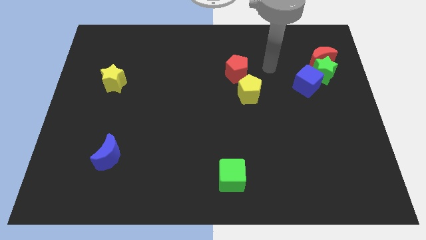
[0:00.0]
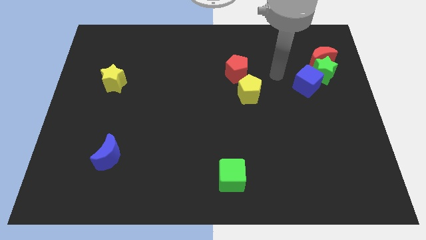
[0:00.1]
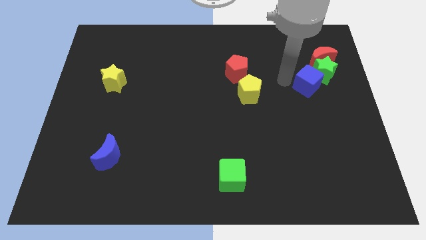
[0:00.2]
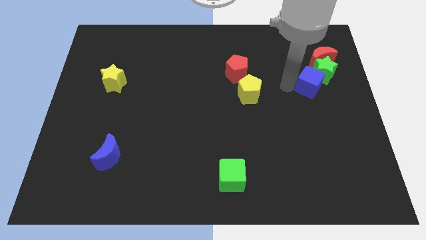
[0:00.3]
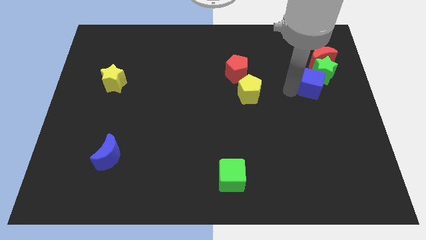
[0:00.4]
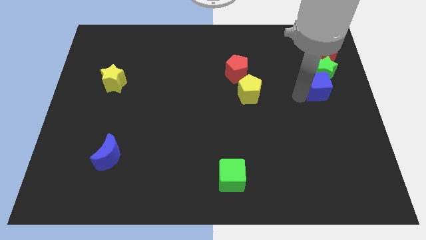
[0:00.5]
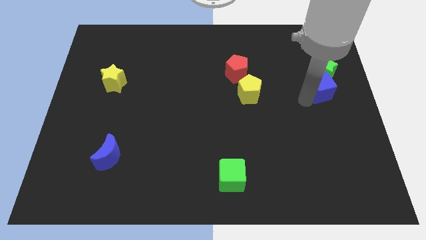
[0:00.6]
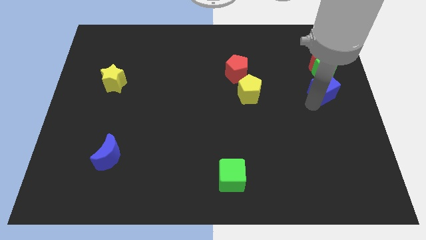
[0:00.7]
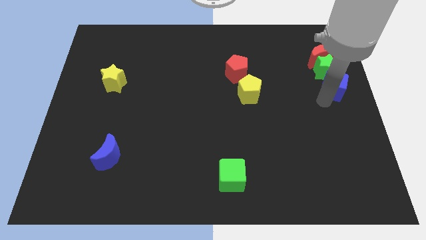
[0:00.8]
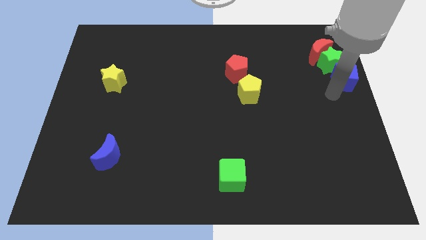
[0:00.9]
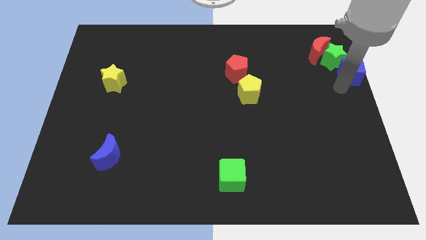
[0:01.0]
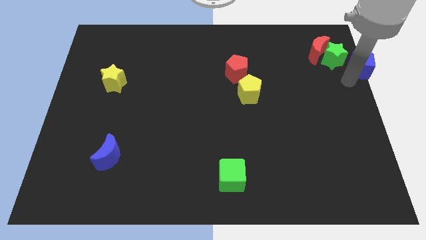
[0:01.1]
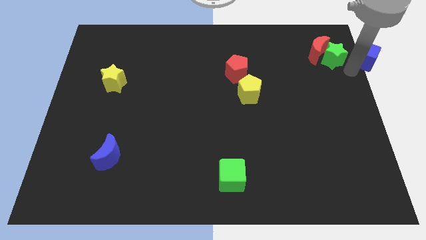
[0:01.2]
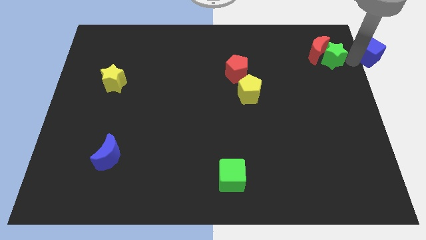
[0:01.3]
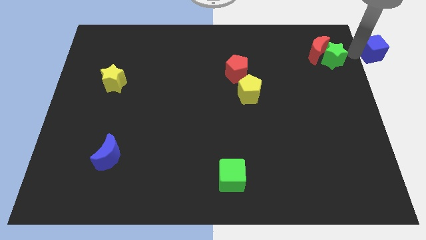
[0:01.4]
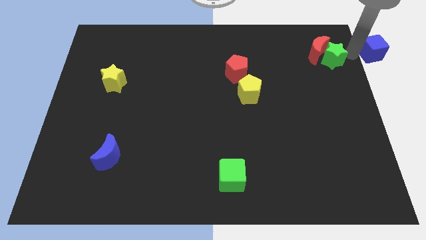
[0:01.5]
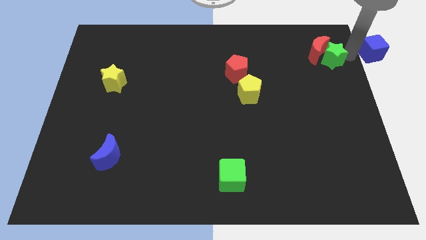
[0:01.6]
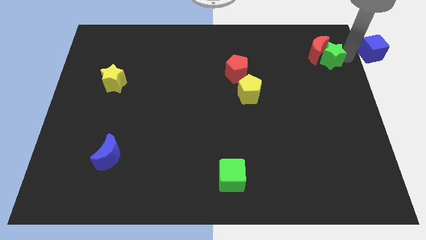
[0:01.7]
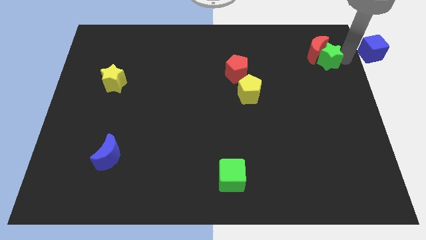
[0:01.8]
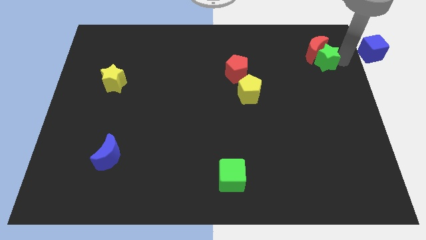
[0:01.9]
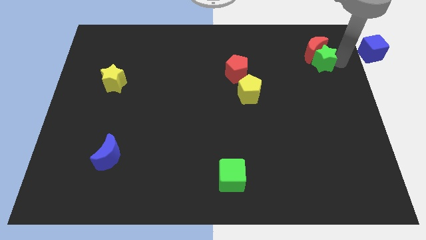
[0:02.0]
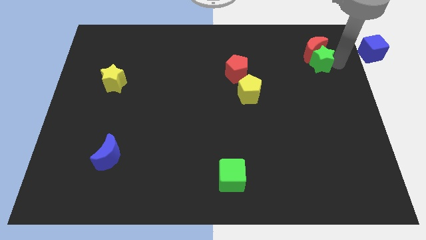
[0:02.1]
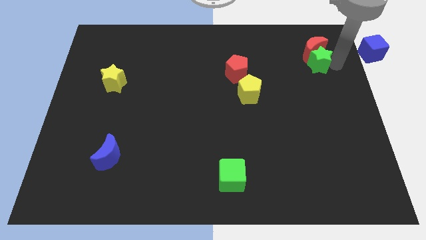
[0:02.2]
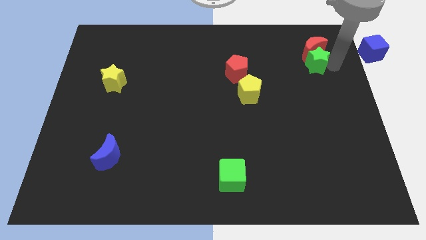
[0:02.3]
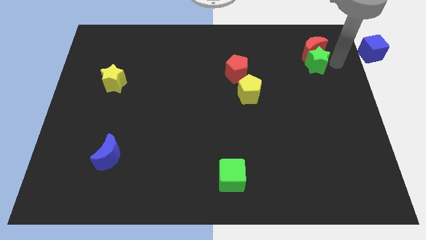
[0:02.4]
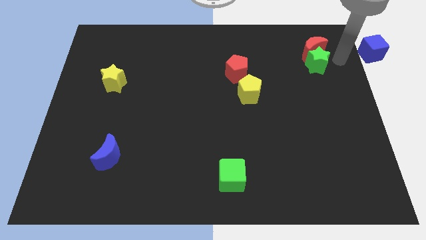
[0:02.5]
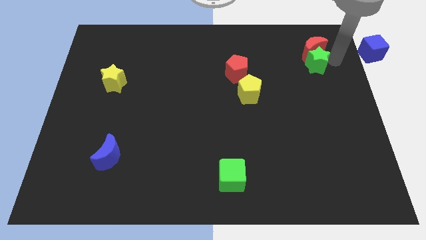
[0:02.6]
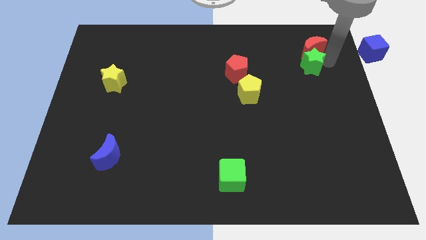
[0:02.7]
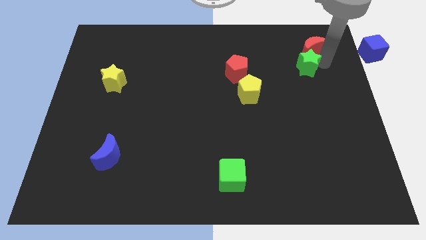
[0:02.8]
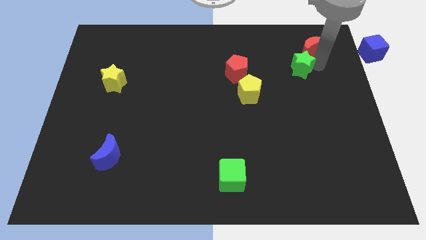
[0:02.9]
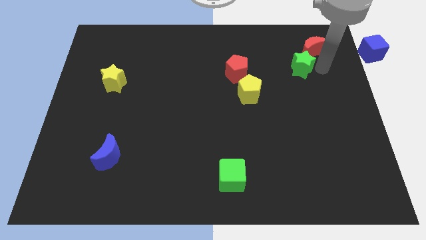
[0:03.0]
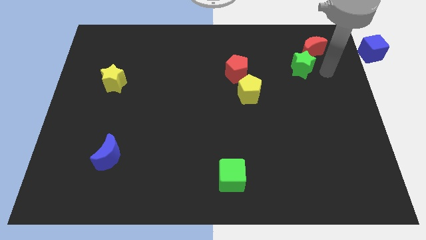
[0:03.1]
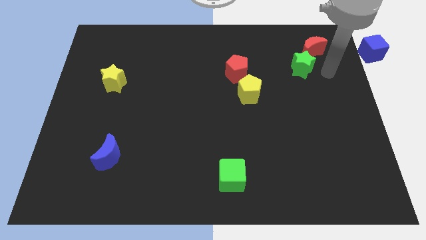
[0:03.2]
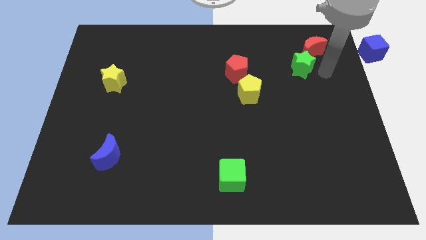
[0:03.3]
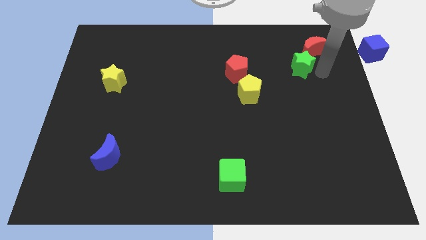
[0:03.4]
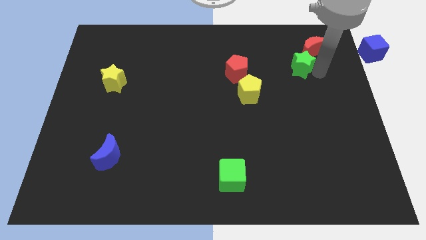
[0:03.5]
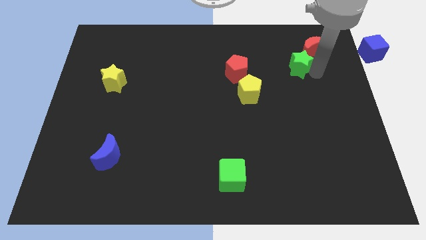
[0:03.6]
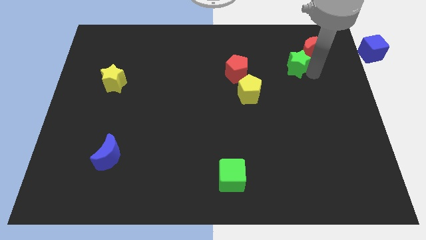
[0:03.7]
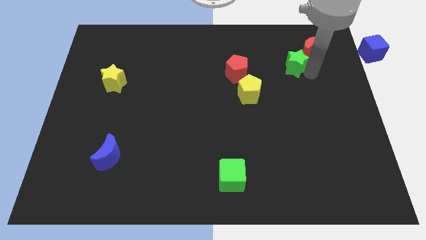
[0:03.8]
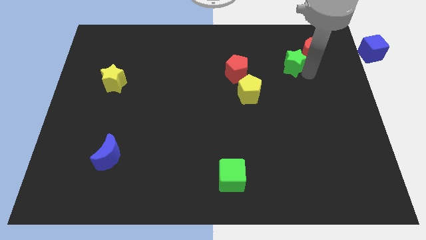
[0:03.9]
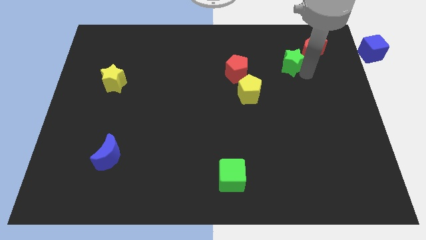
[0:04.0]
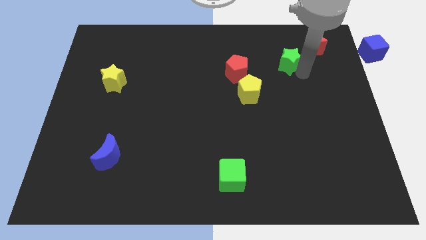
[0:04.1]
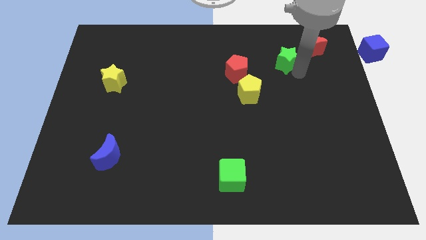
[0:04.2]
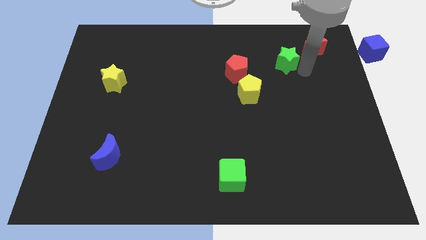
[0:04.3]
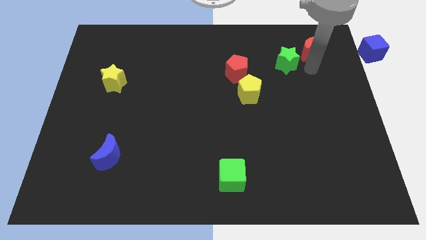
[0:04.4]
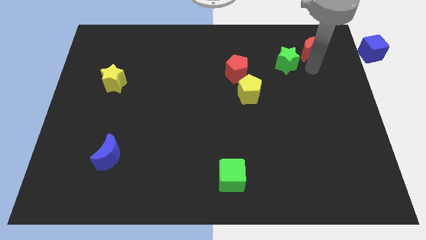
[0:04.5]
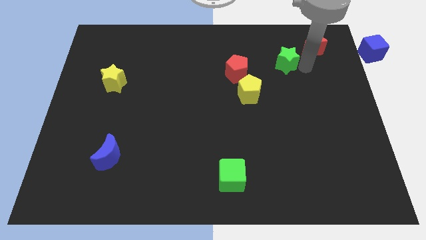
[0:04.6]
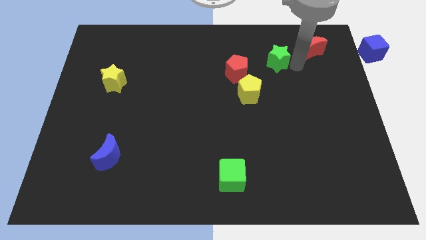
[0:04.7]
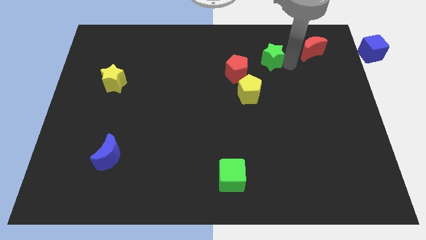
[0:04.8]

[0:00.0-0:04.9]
put the green star to the top right side of the red pentagon

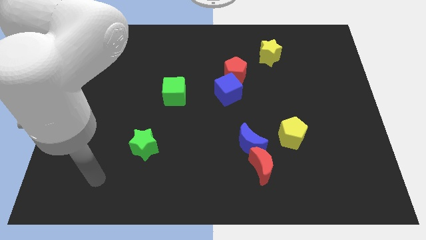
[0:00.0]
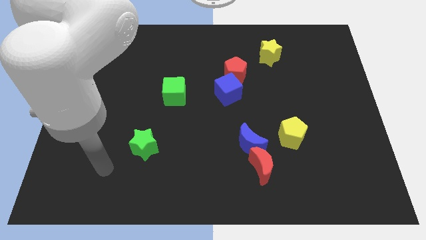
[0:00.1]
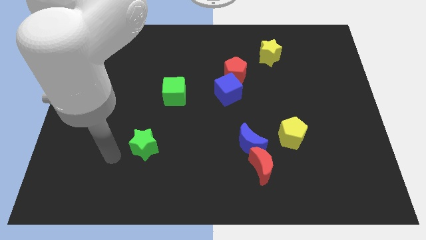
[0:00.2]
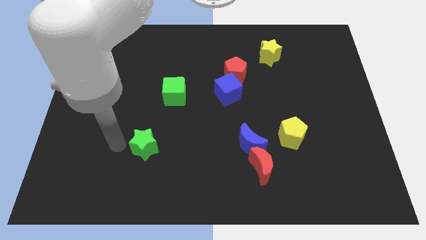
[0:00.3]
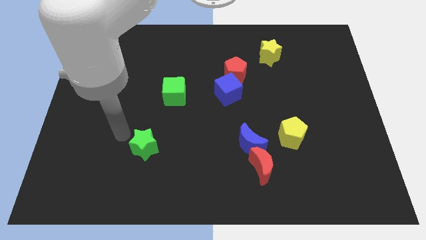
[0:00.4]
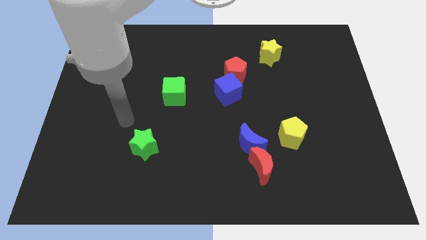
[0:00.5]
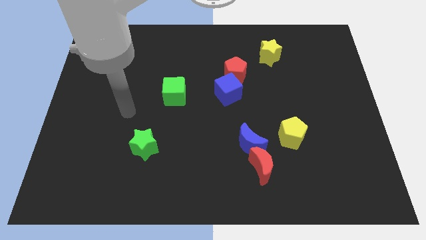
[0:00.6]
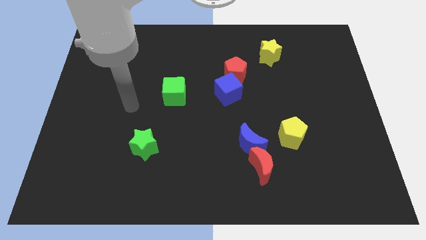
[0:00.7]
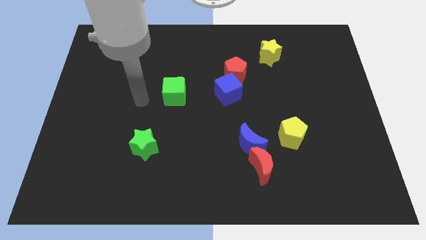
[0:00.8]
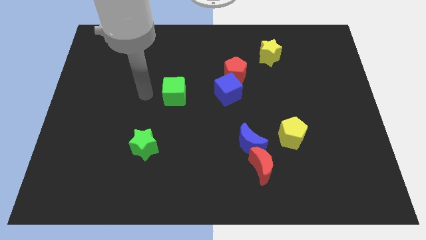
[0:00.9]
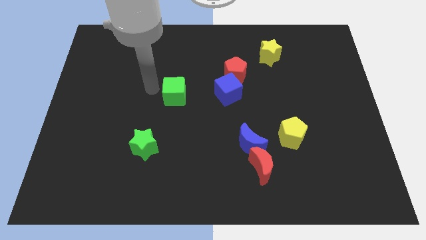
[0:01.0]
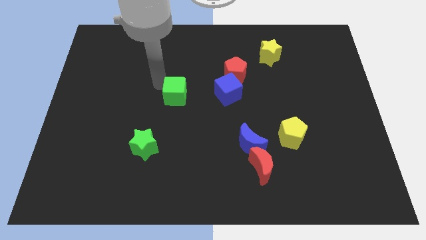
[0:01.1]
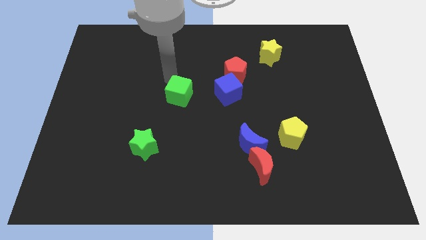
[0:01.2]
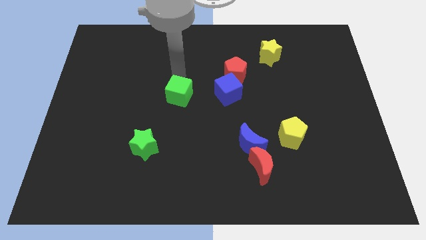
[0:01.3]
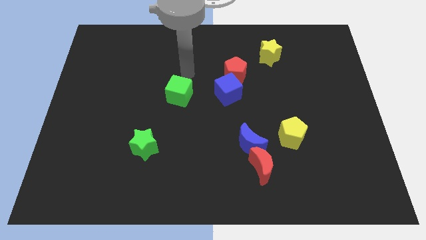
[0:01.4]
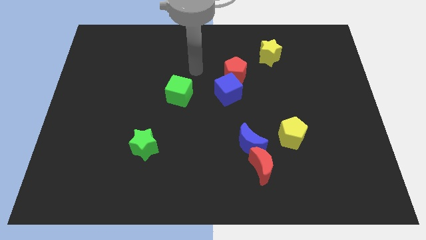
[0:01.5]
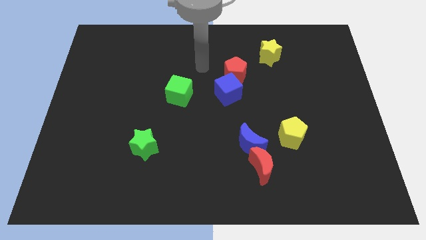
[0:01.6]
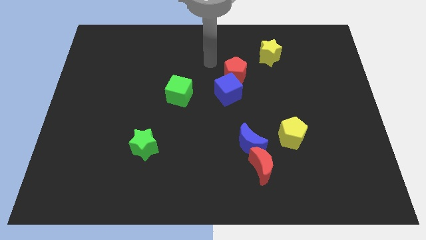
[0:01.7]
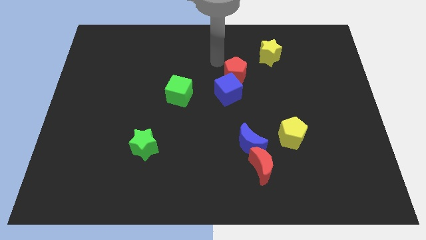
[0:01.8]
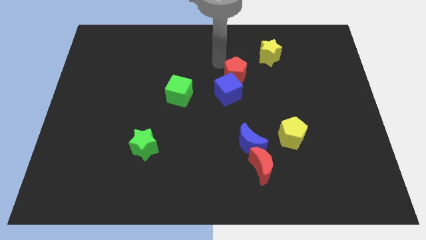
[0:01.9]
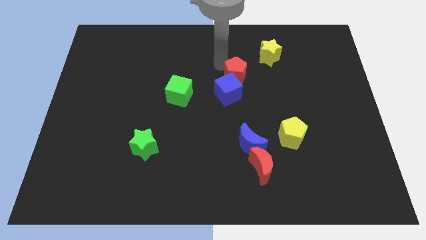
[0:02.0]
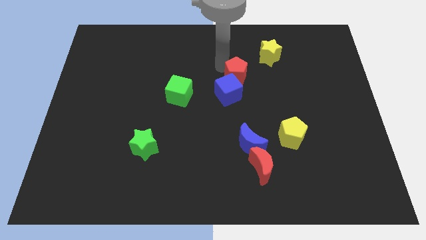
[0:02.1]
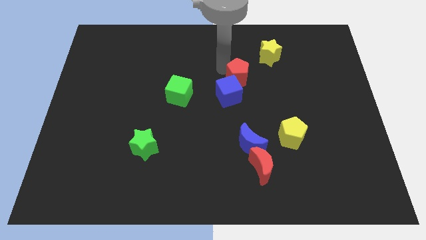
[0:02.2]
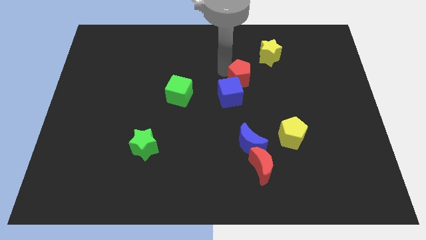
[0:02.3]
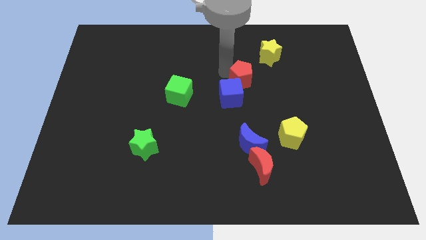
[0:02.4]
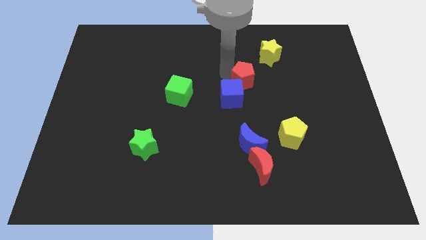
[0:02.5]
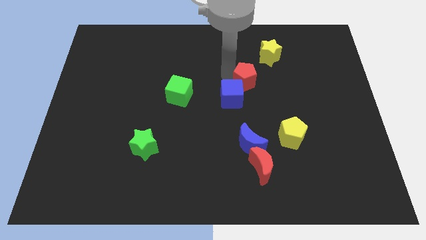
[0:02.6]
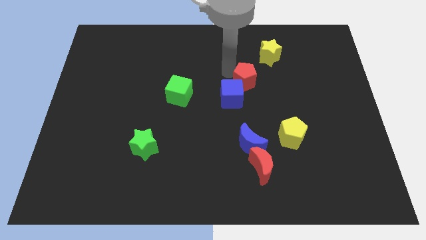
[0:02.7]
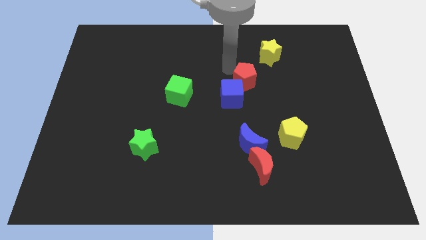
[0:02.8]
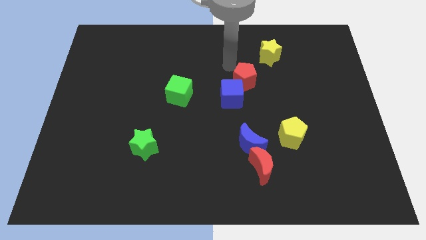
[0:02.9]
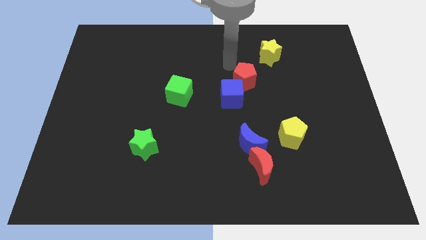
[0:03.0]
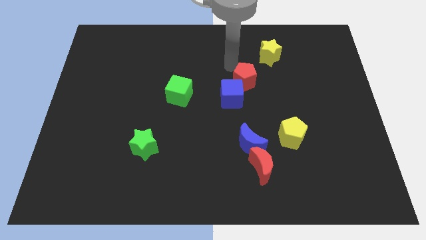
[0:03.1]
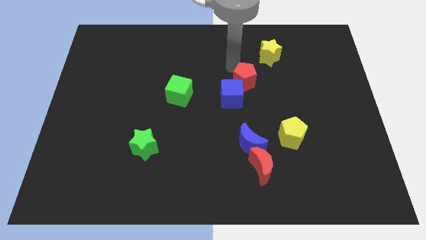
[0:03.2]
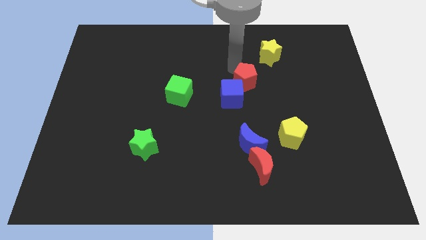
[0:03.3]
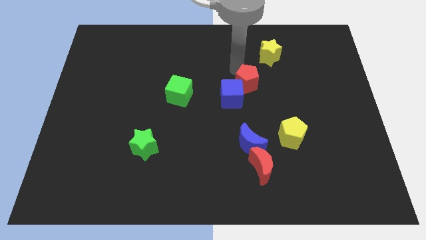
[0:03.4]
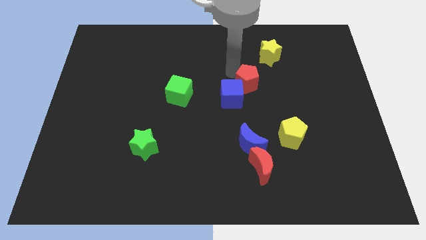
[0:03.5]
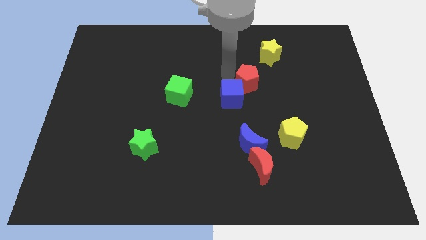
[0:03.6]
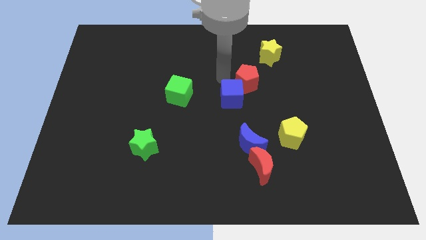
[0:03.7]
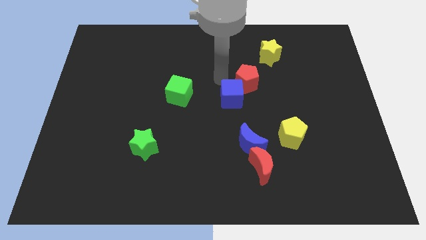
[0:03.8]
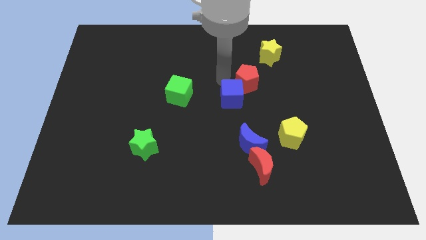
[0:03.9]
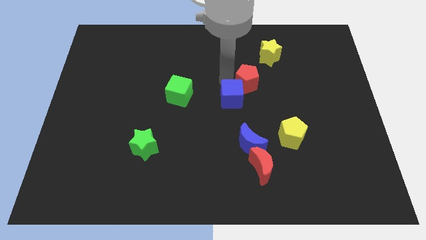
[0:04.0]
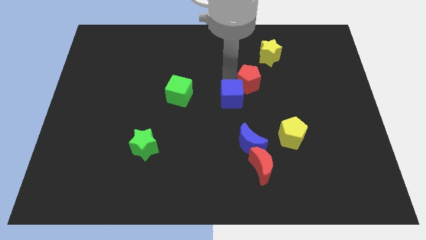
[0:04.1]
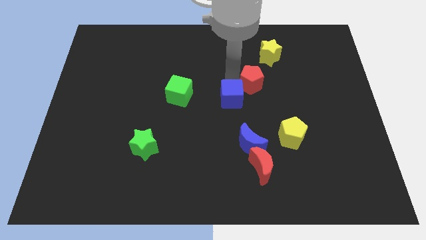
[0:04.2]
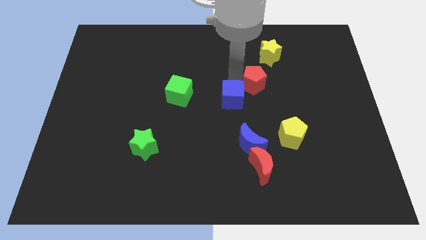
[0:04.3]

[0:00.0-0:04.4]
slide the red pentagon to the bottom of the yellow star
